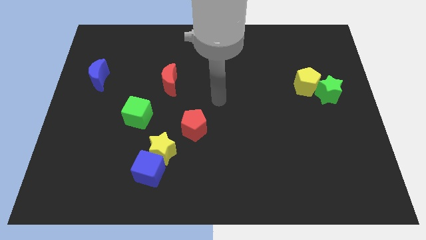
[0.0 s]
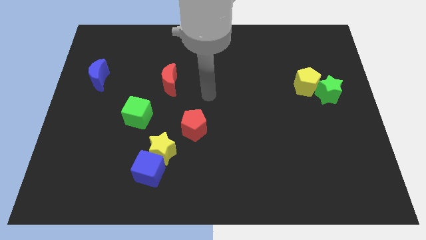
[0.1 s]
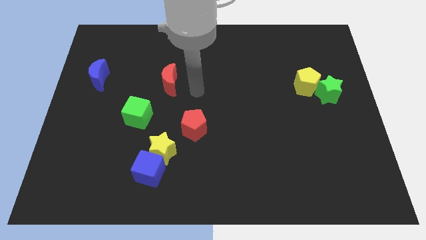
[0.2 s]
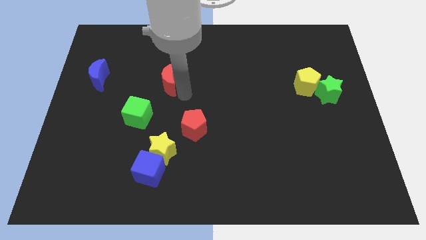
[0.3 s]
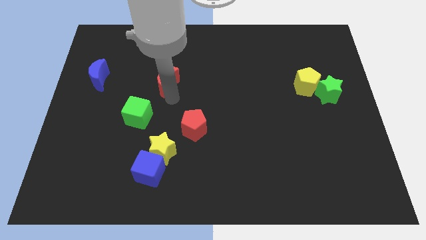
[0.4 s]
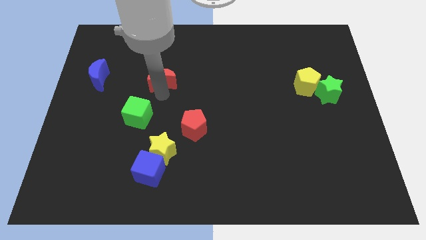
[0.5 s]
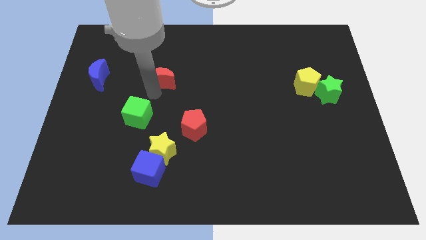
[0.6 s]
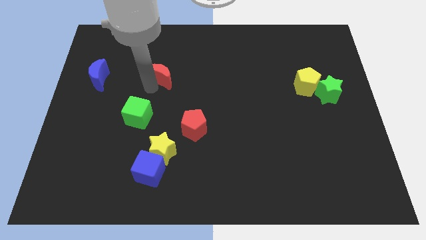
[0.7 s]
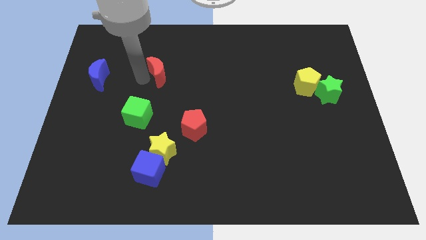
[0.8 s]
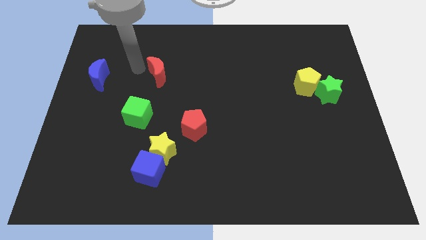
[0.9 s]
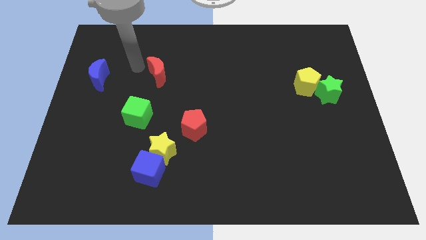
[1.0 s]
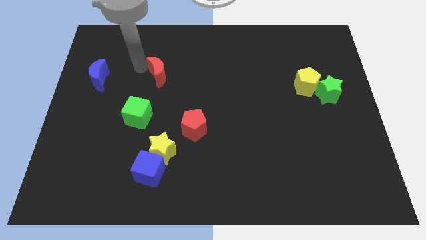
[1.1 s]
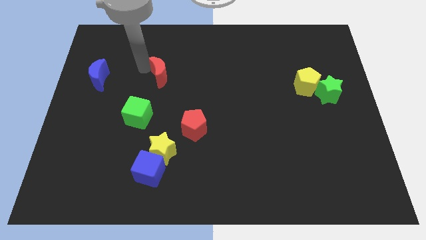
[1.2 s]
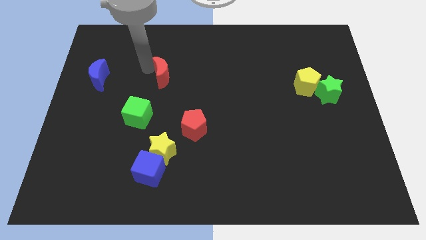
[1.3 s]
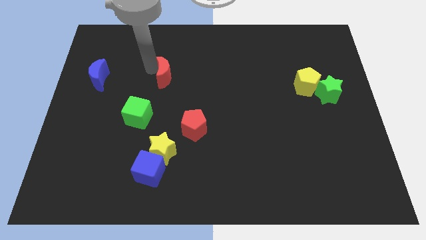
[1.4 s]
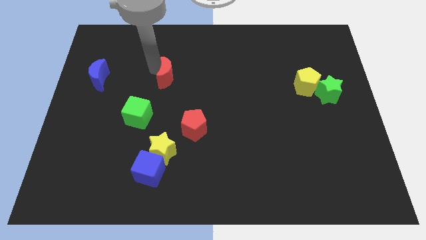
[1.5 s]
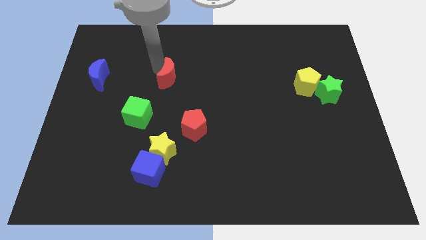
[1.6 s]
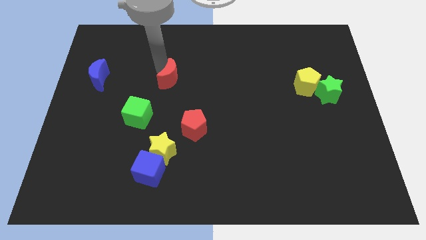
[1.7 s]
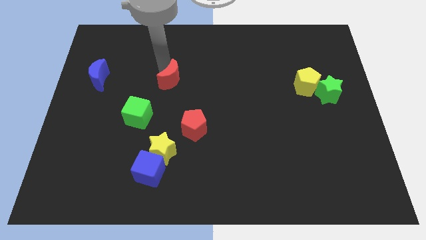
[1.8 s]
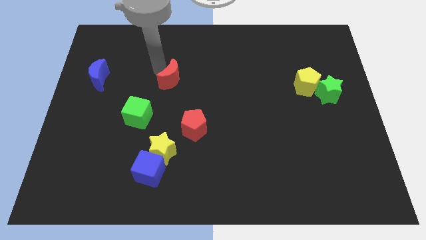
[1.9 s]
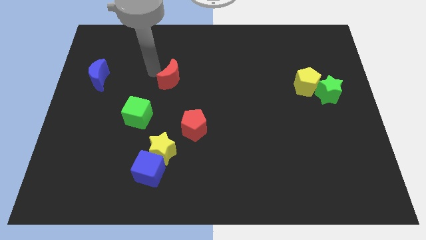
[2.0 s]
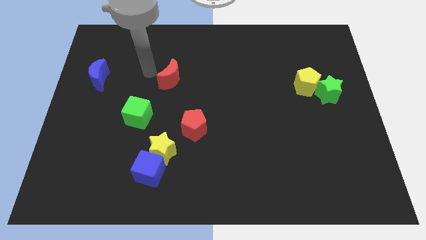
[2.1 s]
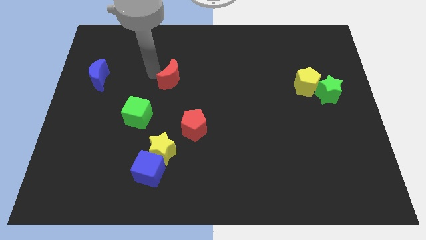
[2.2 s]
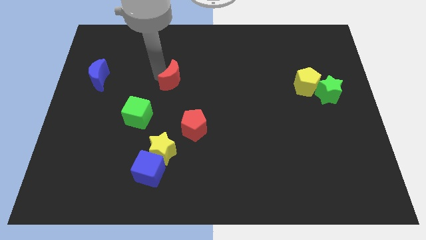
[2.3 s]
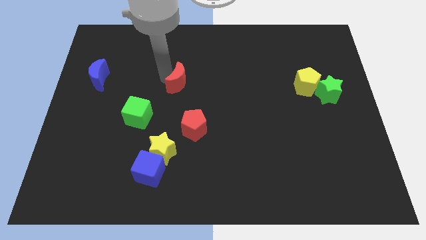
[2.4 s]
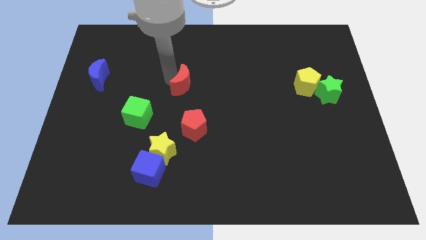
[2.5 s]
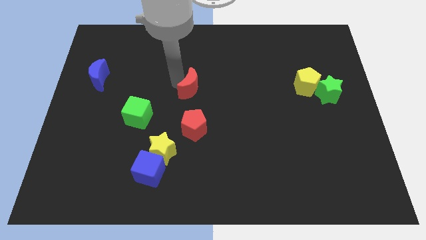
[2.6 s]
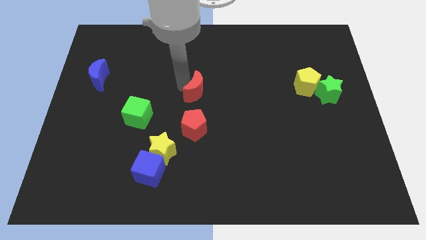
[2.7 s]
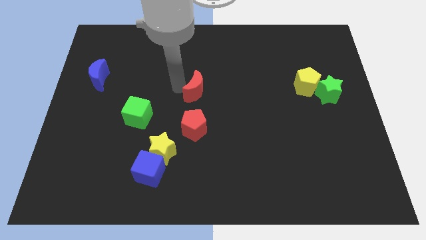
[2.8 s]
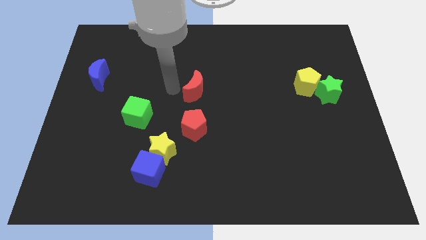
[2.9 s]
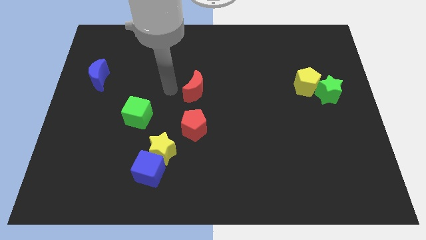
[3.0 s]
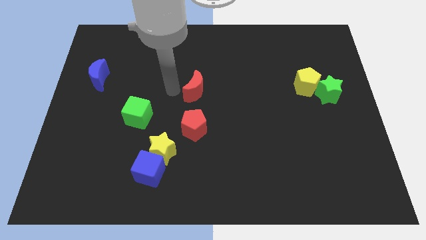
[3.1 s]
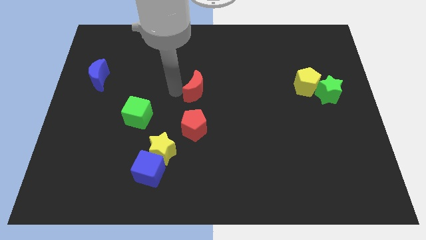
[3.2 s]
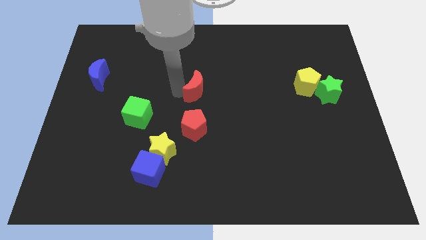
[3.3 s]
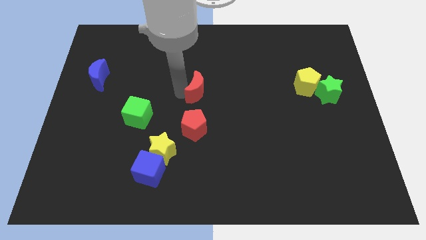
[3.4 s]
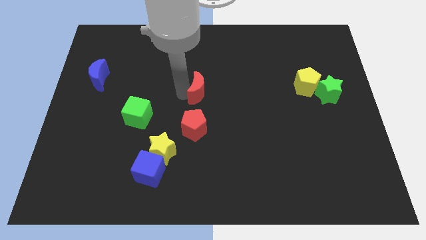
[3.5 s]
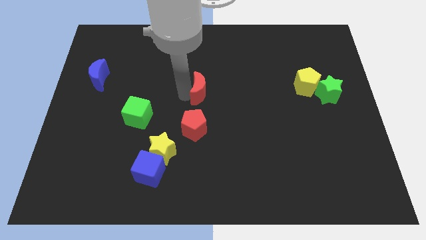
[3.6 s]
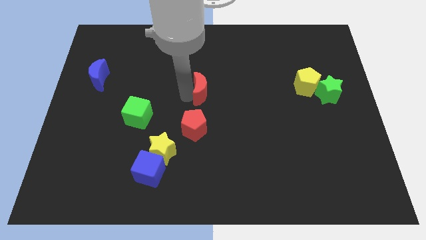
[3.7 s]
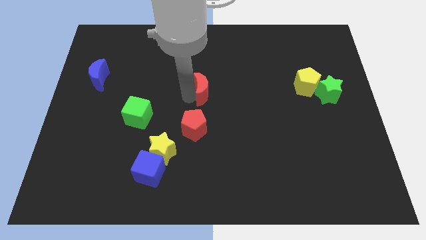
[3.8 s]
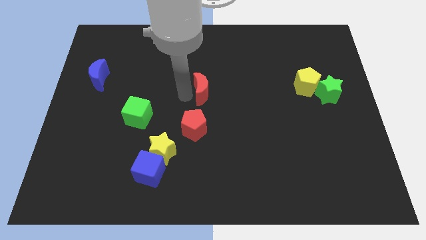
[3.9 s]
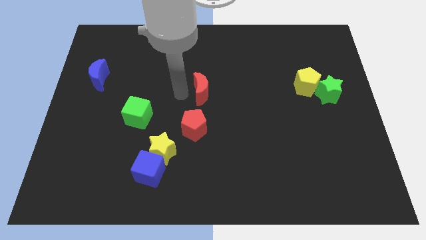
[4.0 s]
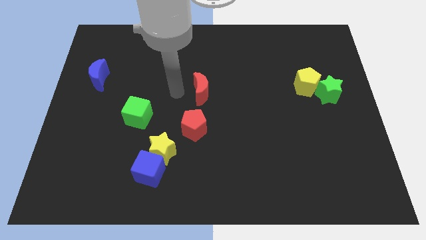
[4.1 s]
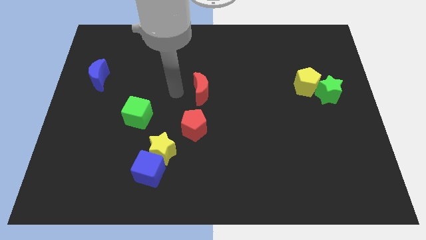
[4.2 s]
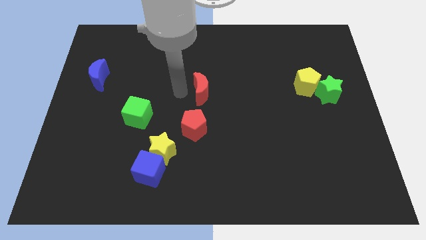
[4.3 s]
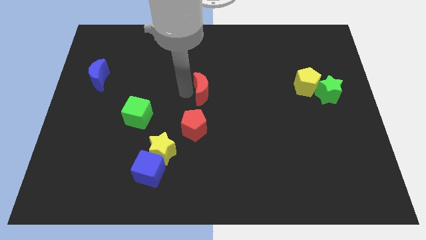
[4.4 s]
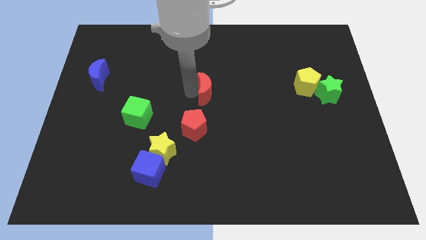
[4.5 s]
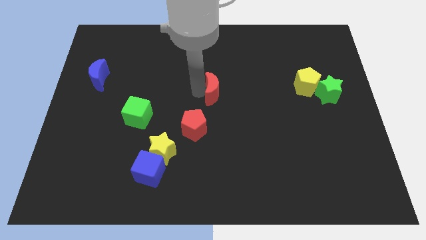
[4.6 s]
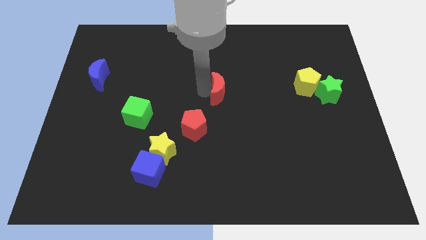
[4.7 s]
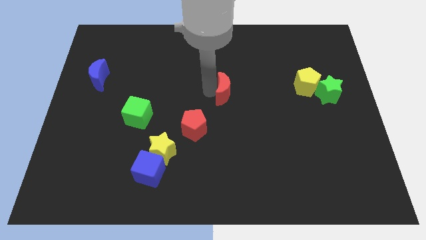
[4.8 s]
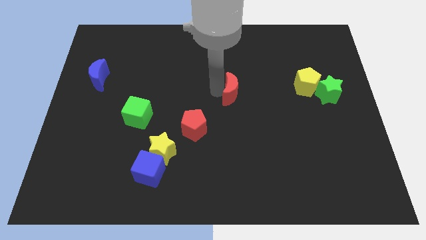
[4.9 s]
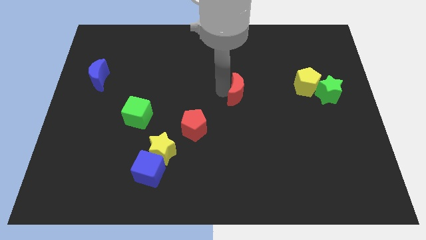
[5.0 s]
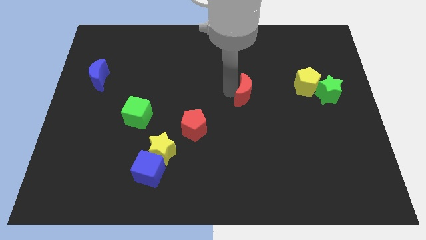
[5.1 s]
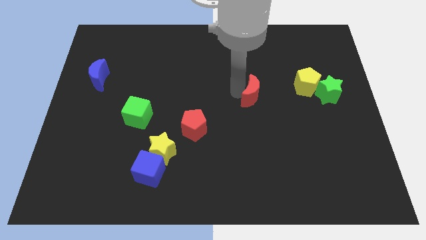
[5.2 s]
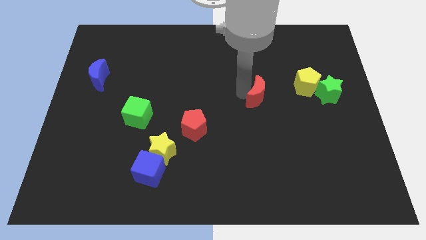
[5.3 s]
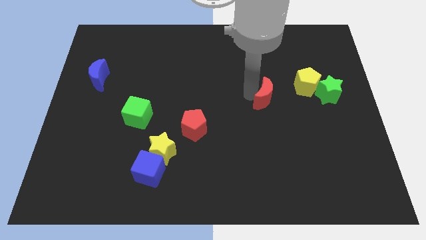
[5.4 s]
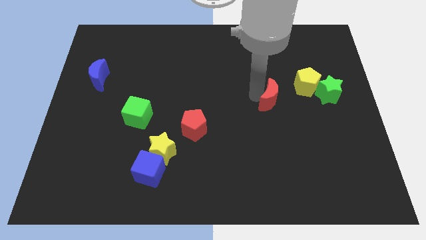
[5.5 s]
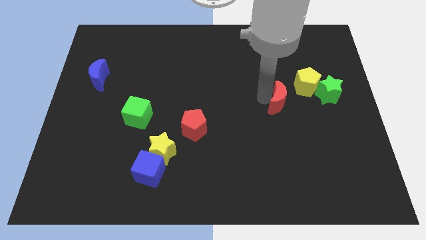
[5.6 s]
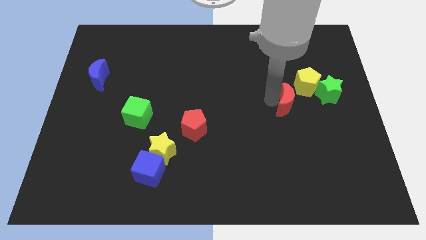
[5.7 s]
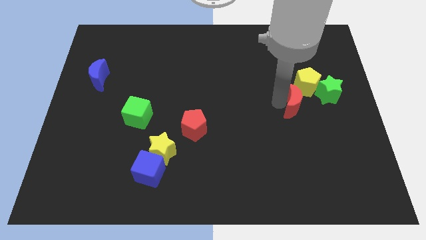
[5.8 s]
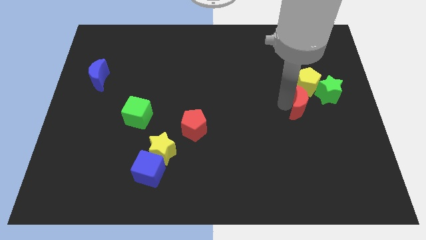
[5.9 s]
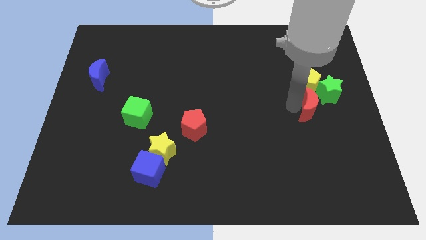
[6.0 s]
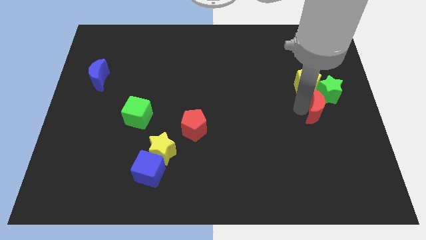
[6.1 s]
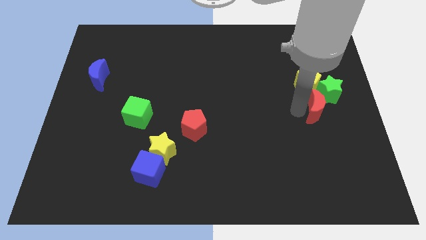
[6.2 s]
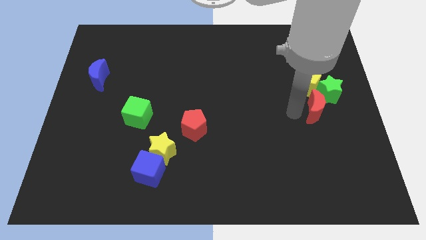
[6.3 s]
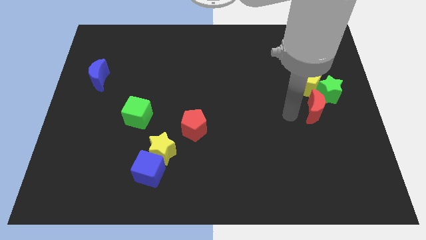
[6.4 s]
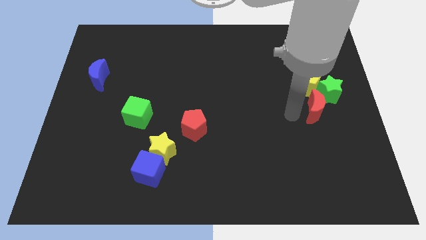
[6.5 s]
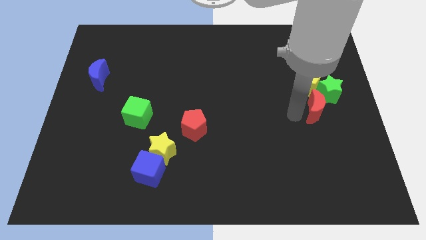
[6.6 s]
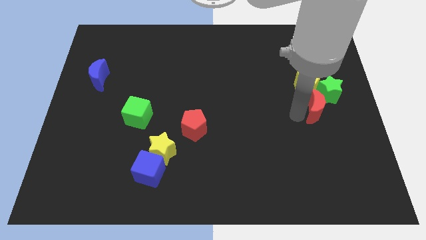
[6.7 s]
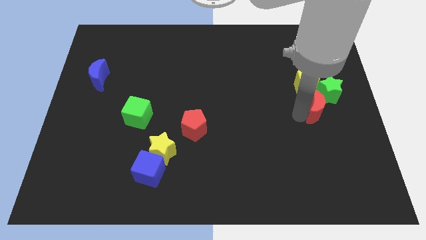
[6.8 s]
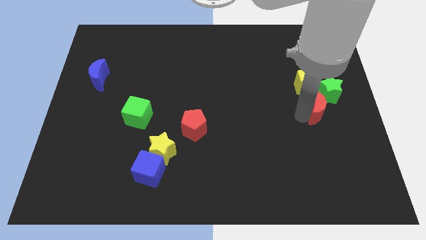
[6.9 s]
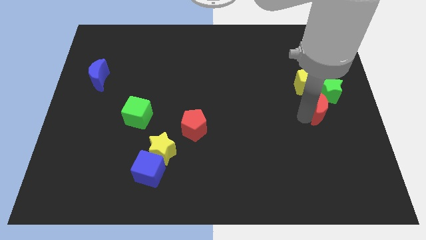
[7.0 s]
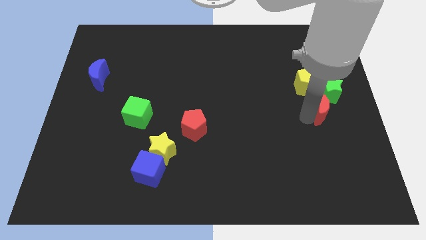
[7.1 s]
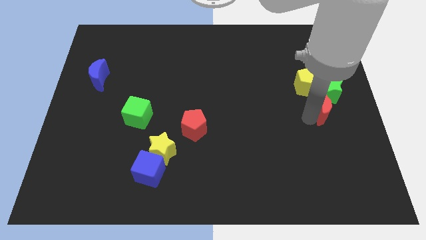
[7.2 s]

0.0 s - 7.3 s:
move the red moon to the right side of the board
